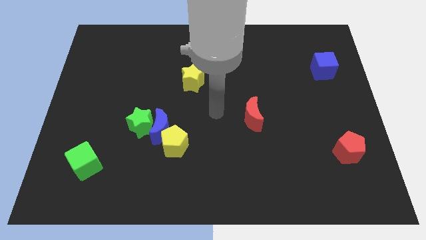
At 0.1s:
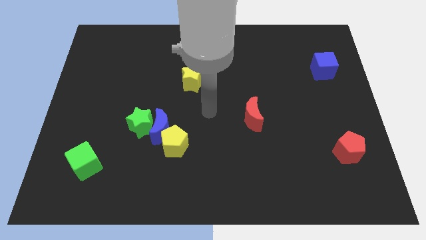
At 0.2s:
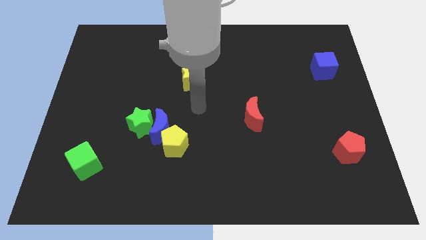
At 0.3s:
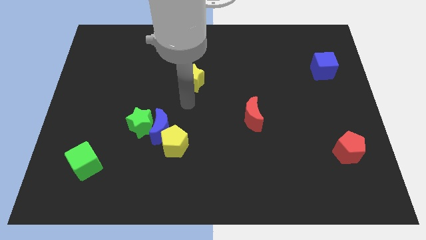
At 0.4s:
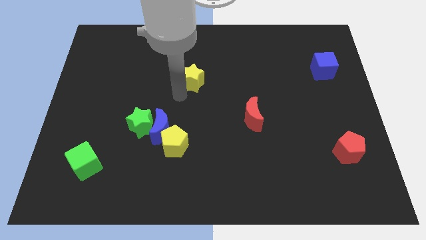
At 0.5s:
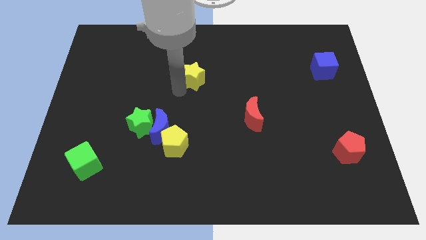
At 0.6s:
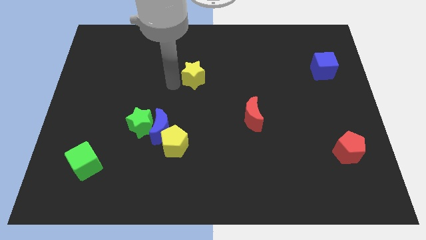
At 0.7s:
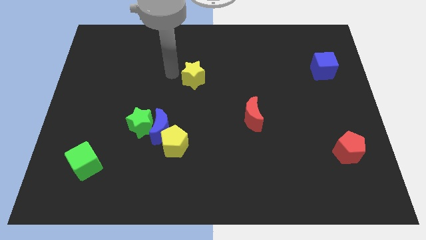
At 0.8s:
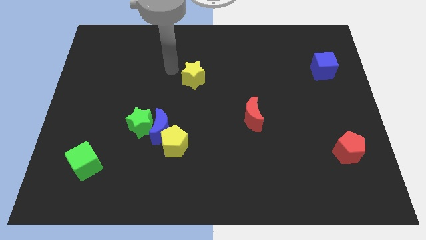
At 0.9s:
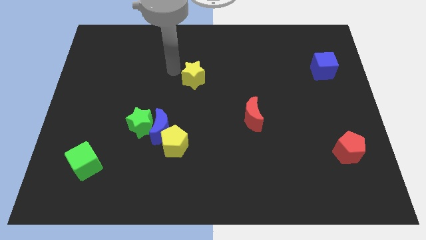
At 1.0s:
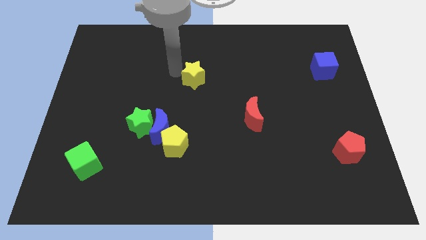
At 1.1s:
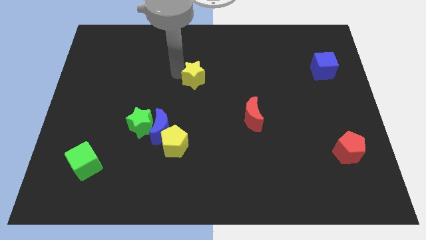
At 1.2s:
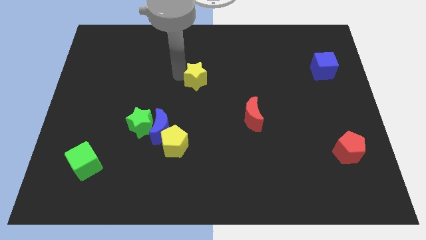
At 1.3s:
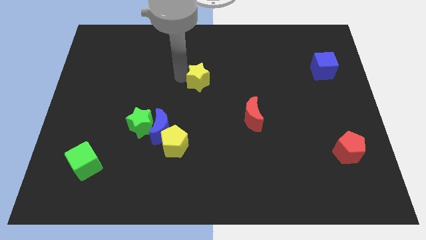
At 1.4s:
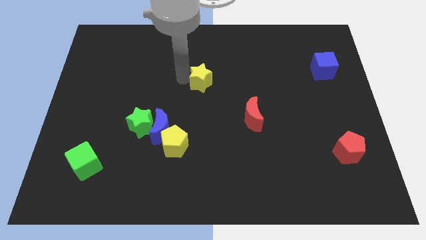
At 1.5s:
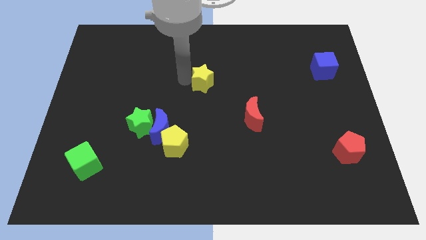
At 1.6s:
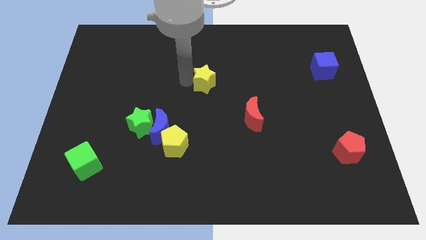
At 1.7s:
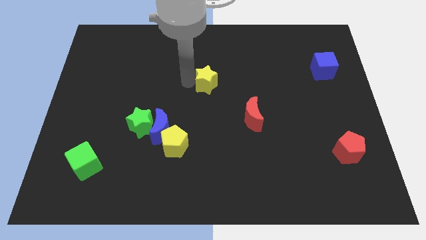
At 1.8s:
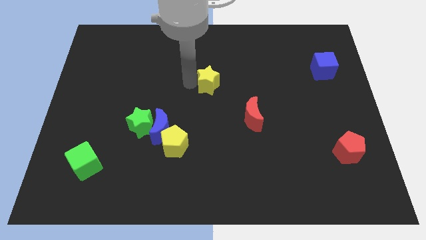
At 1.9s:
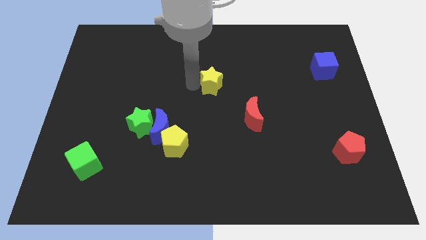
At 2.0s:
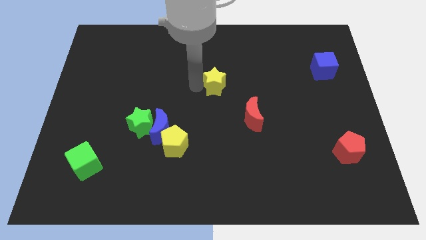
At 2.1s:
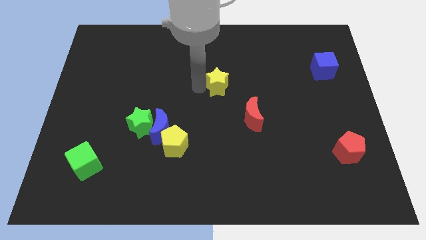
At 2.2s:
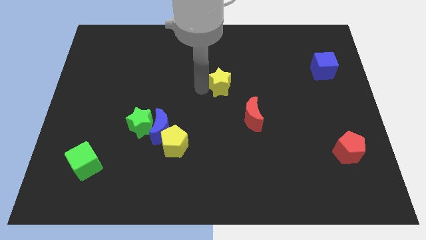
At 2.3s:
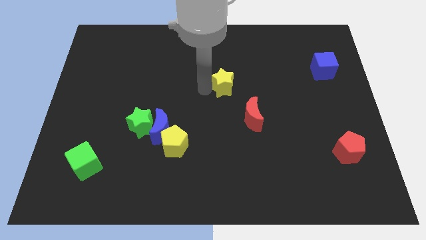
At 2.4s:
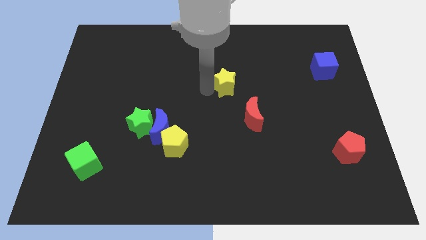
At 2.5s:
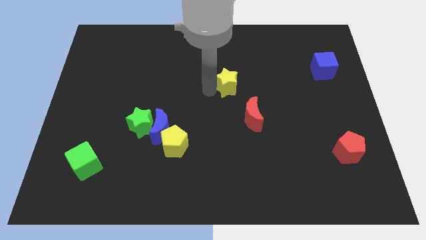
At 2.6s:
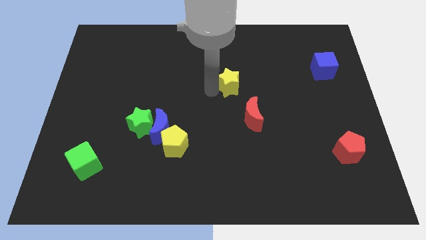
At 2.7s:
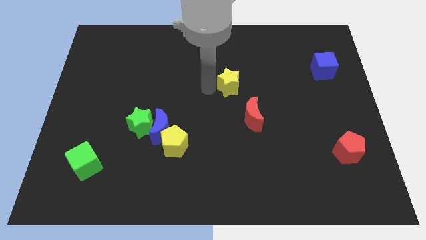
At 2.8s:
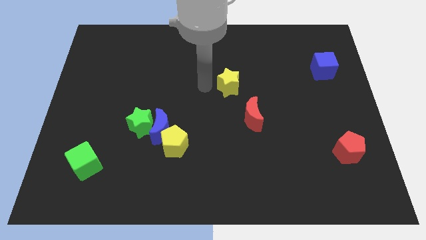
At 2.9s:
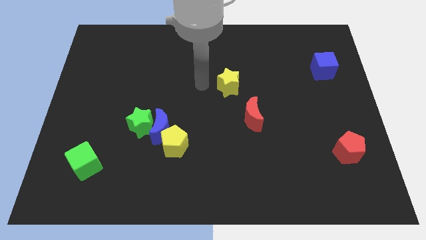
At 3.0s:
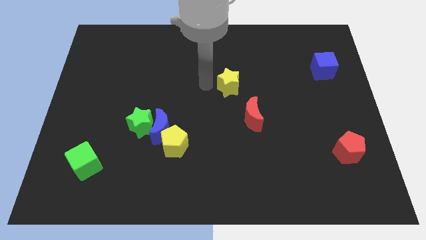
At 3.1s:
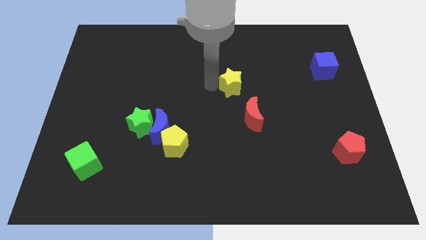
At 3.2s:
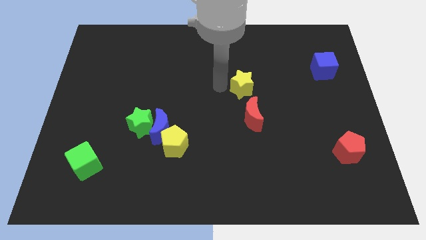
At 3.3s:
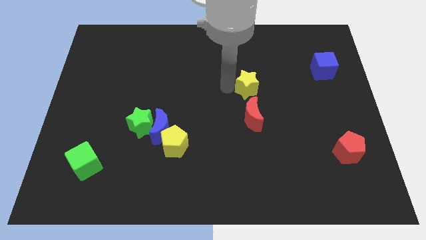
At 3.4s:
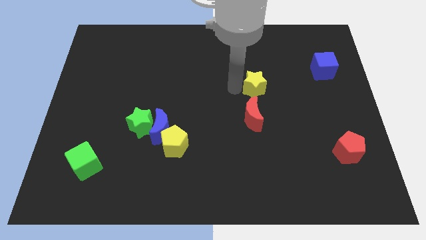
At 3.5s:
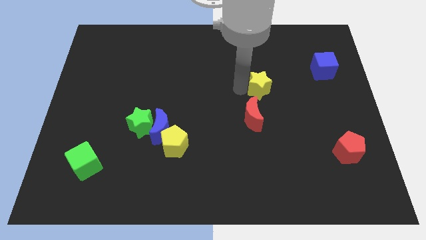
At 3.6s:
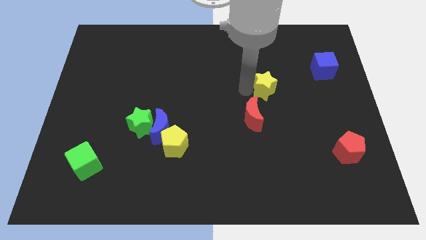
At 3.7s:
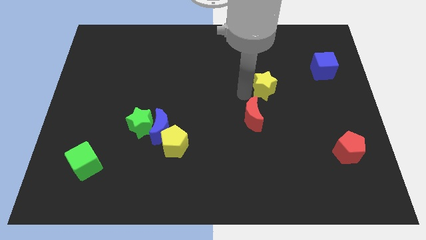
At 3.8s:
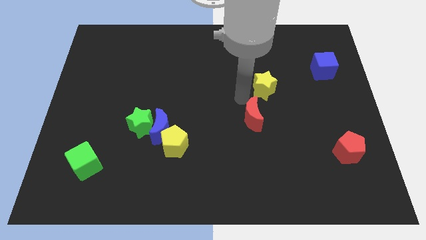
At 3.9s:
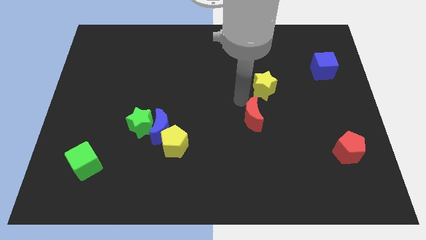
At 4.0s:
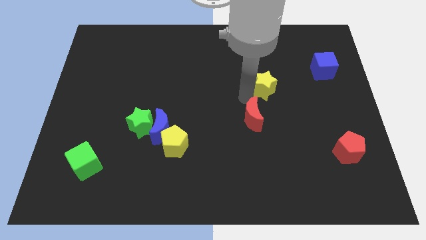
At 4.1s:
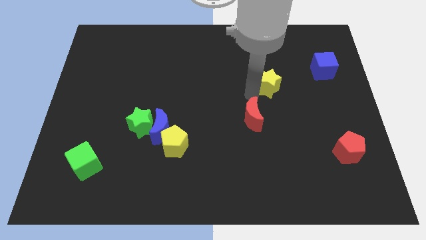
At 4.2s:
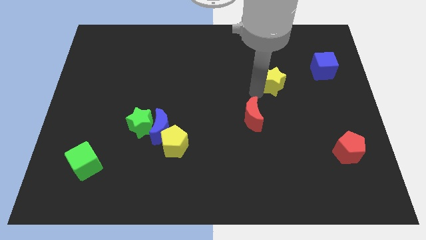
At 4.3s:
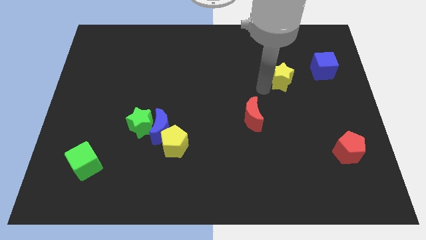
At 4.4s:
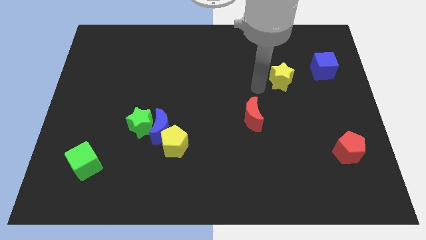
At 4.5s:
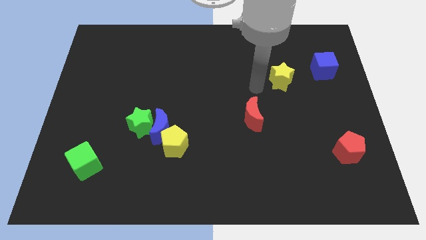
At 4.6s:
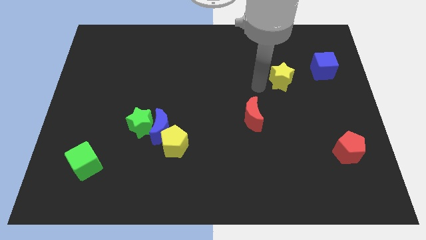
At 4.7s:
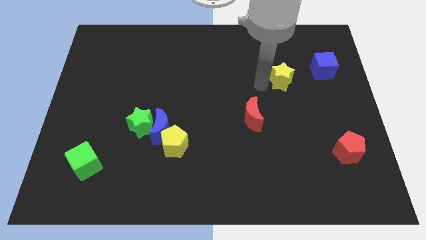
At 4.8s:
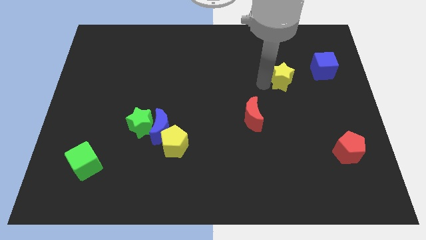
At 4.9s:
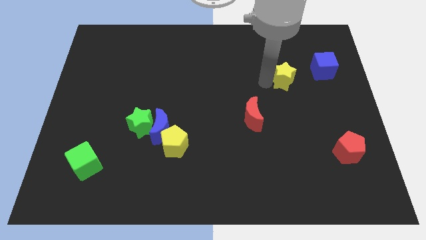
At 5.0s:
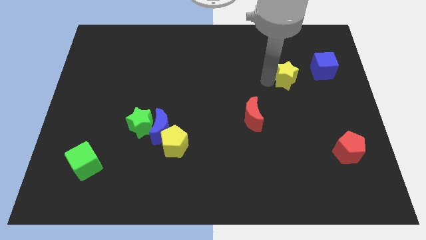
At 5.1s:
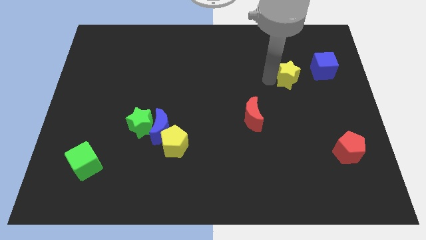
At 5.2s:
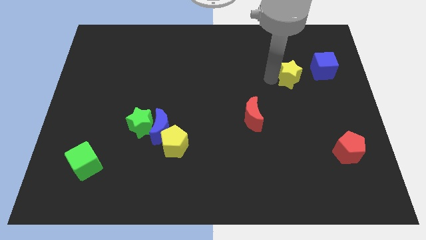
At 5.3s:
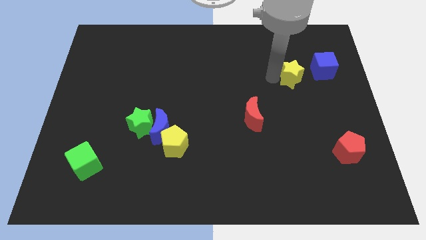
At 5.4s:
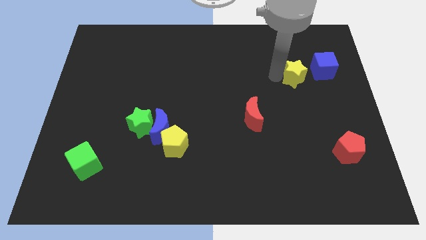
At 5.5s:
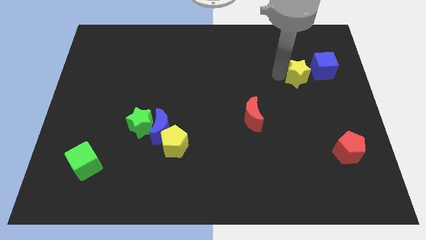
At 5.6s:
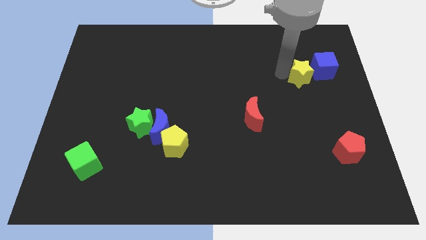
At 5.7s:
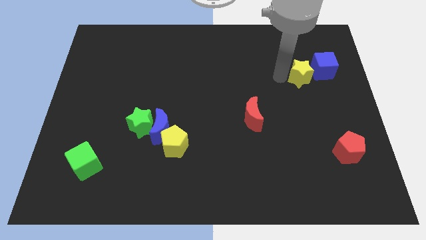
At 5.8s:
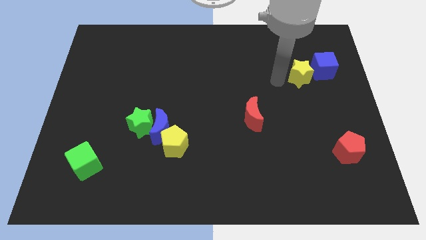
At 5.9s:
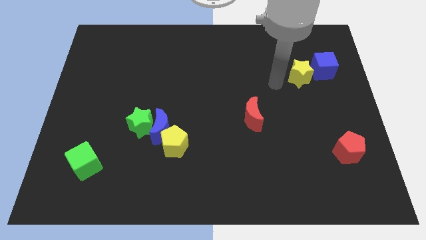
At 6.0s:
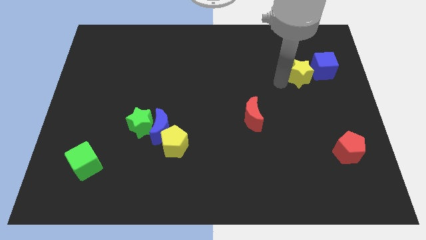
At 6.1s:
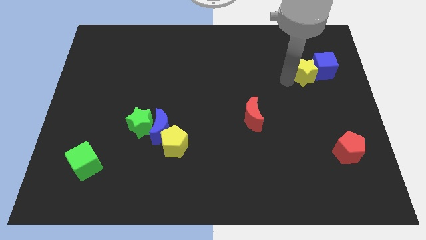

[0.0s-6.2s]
put the yellow star to the blue cube
